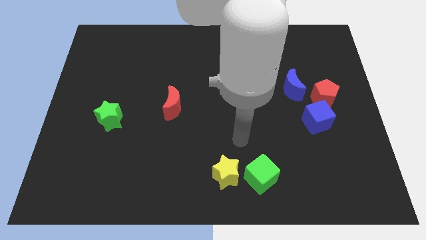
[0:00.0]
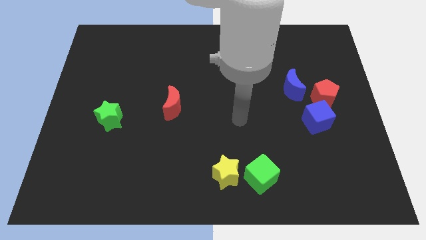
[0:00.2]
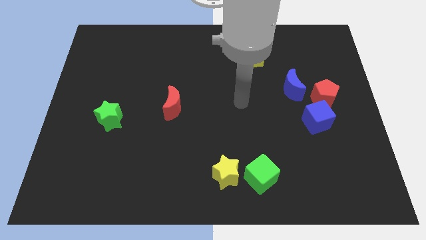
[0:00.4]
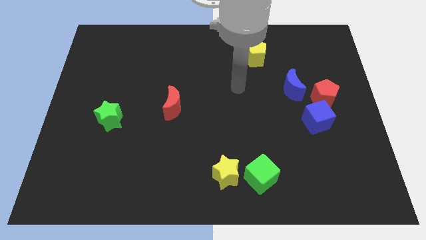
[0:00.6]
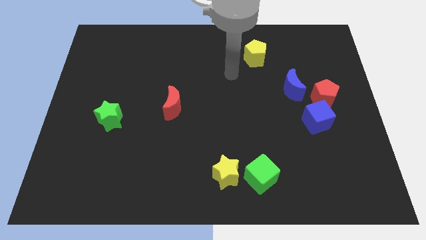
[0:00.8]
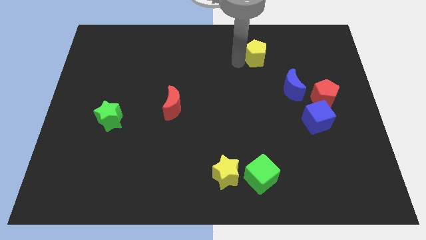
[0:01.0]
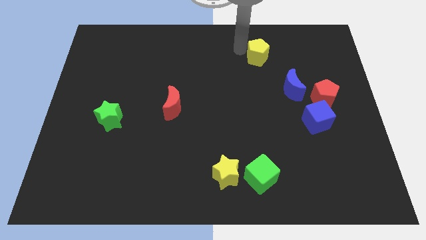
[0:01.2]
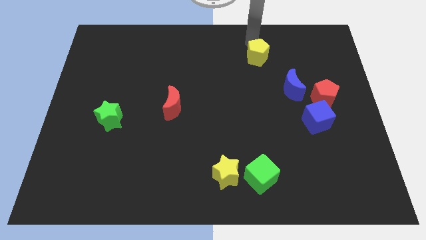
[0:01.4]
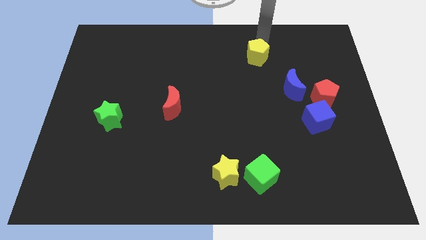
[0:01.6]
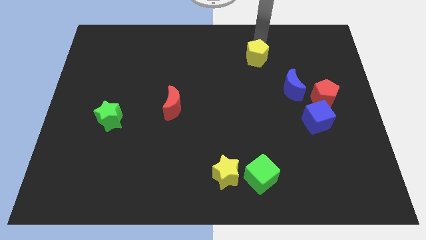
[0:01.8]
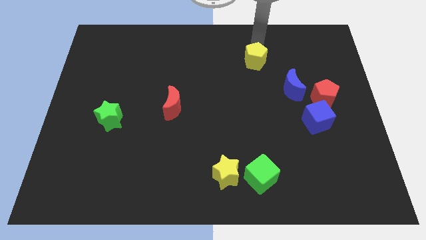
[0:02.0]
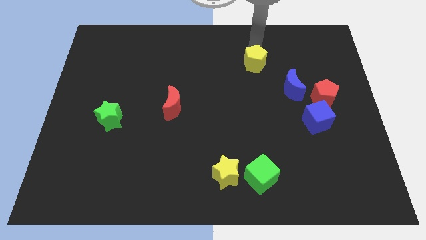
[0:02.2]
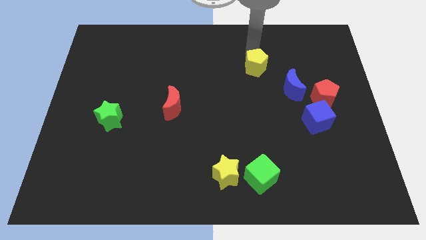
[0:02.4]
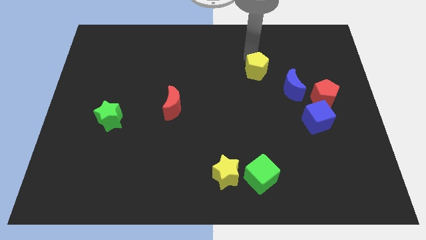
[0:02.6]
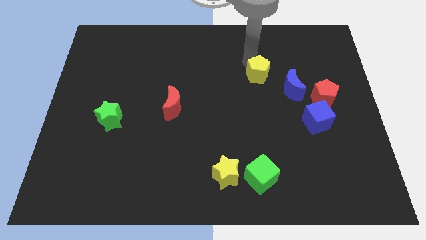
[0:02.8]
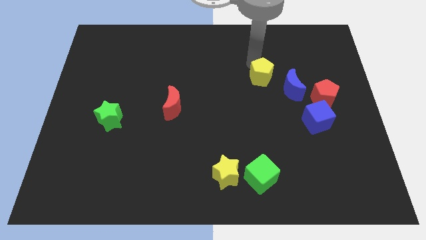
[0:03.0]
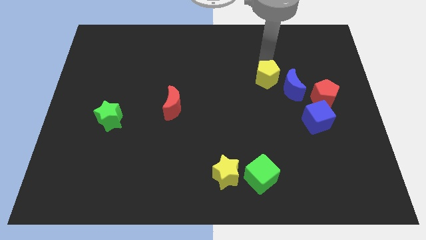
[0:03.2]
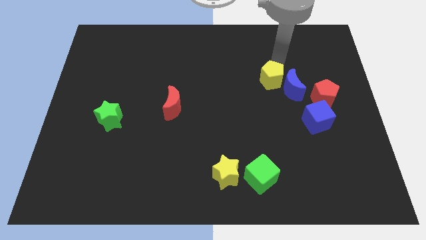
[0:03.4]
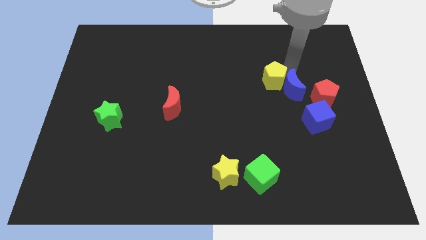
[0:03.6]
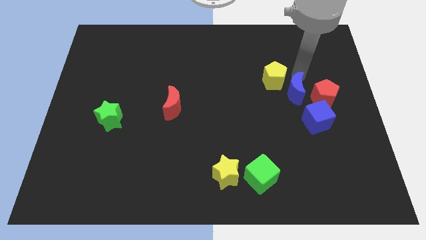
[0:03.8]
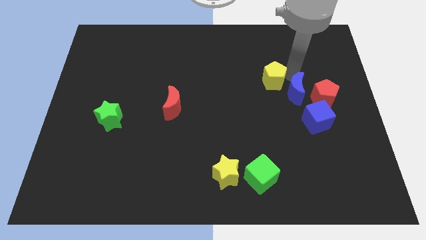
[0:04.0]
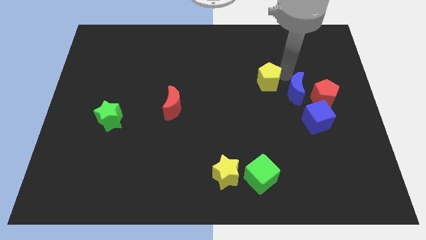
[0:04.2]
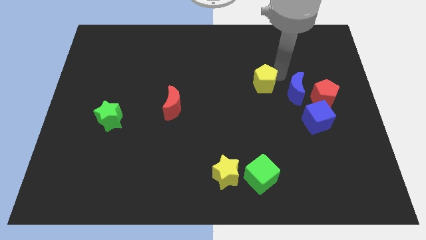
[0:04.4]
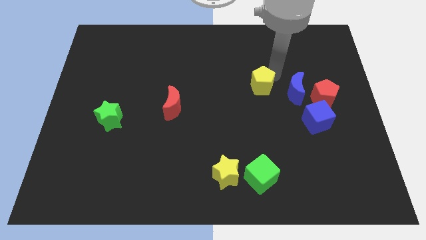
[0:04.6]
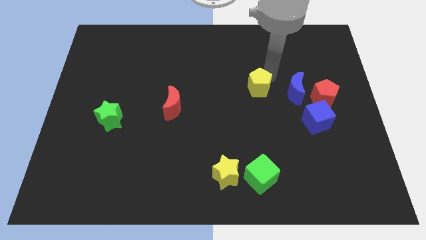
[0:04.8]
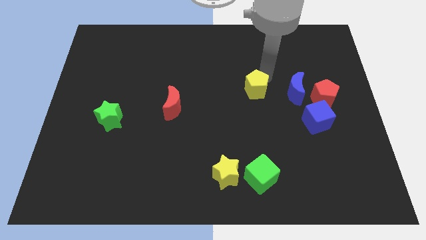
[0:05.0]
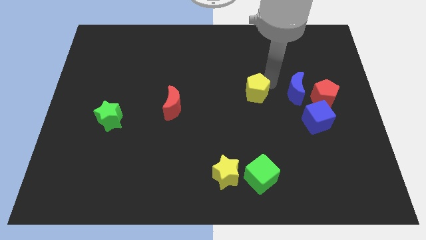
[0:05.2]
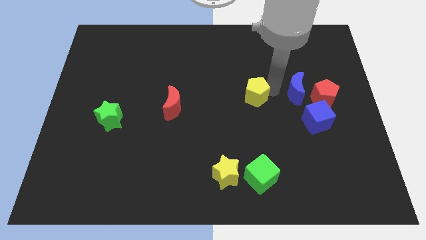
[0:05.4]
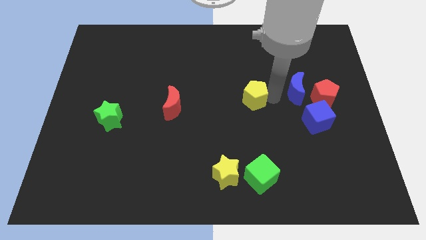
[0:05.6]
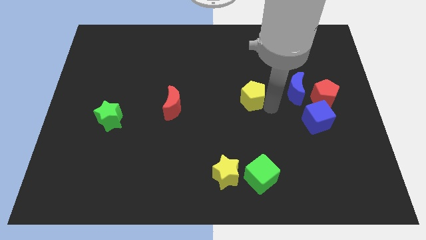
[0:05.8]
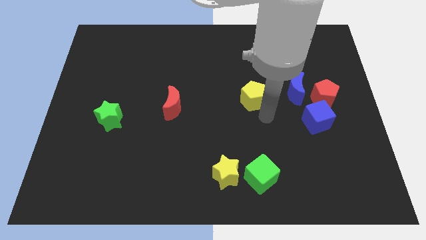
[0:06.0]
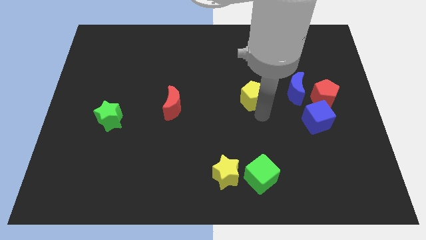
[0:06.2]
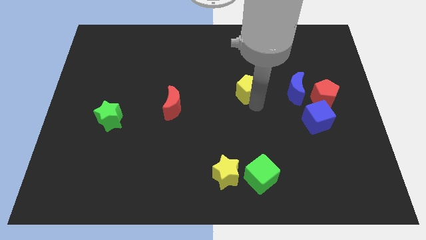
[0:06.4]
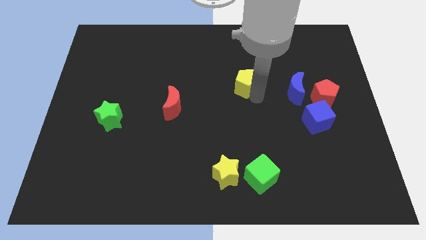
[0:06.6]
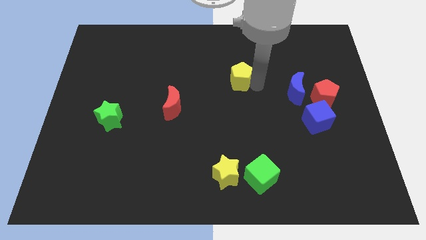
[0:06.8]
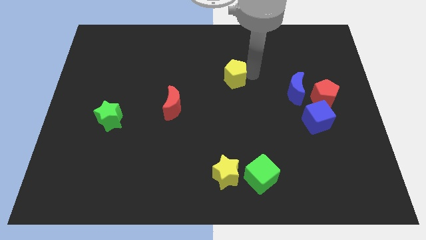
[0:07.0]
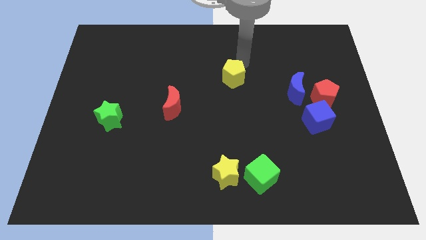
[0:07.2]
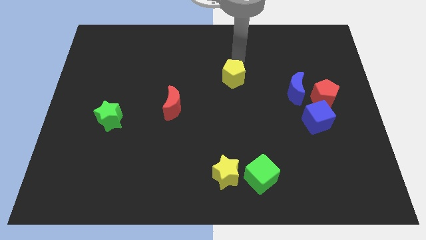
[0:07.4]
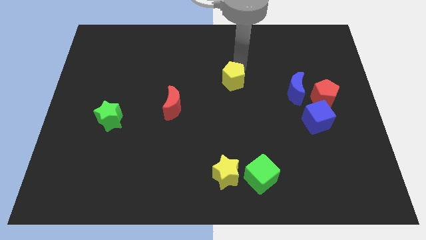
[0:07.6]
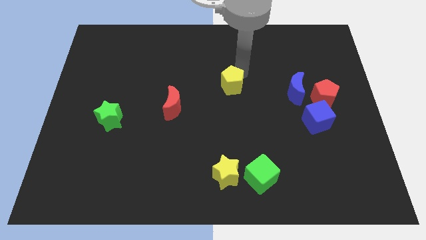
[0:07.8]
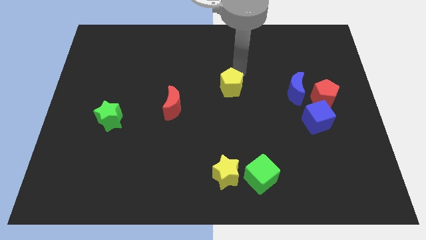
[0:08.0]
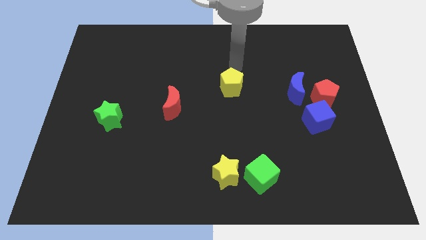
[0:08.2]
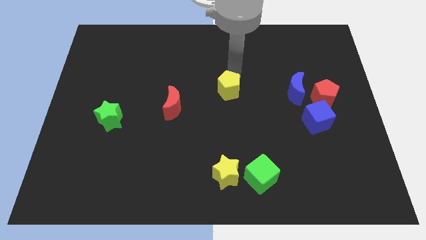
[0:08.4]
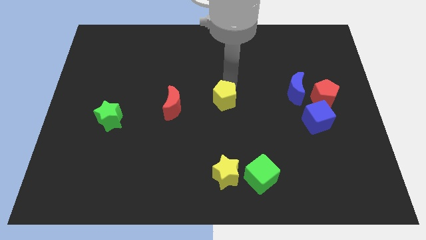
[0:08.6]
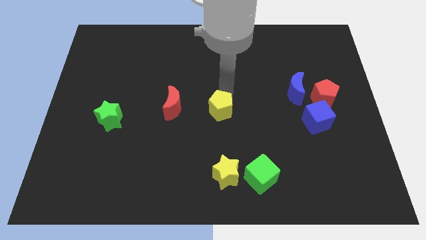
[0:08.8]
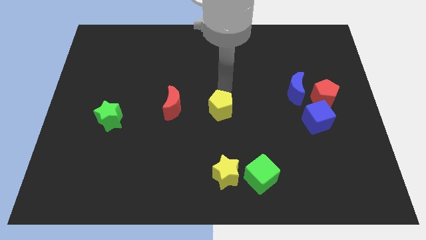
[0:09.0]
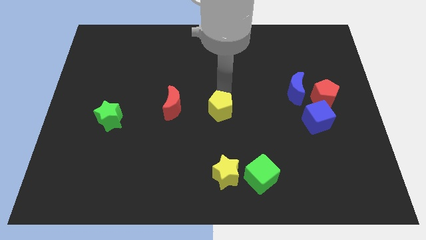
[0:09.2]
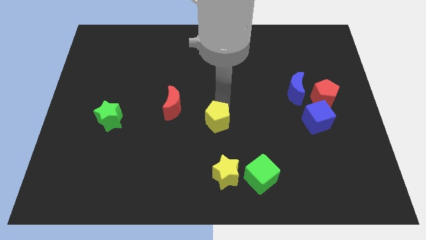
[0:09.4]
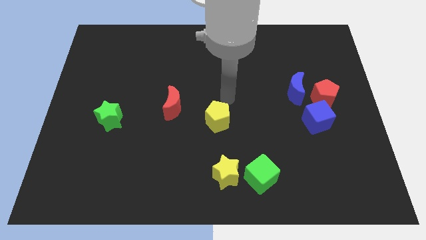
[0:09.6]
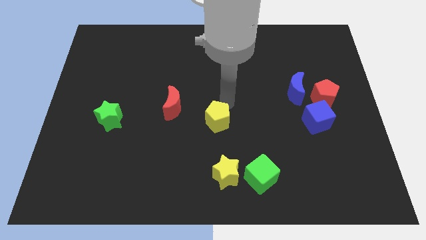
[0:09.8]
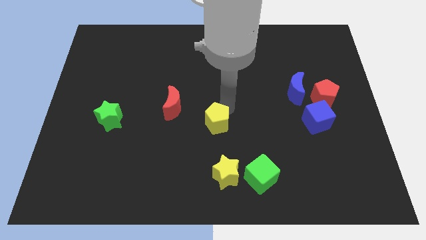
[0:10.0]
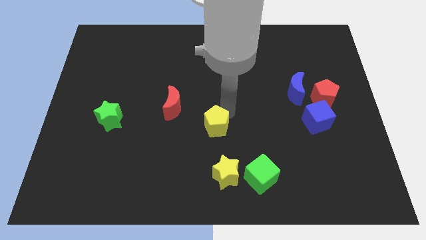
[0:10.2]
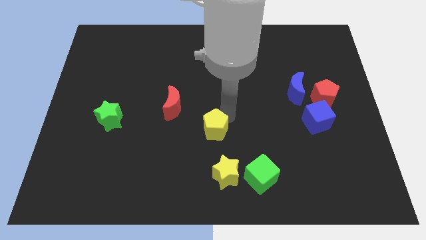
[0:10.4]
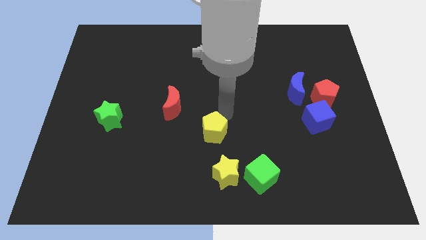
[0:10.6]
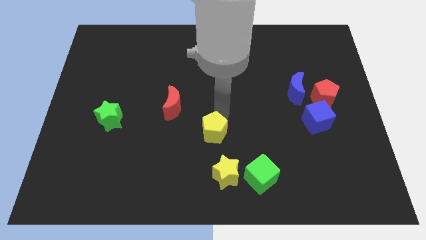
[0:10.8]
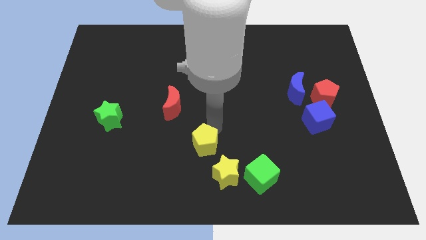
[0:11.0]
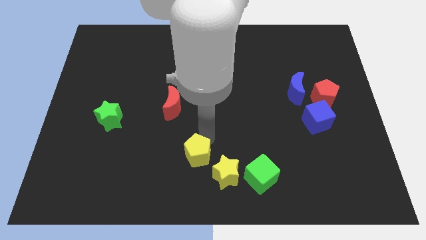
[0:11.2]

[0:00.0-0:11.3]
push the yellow pentagon to the bottom

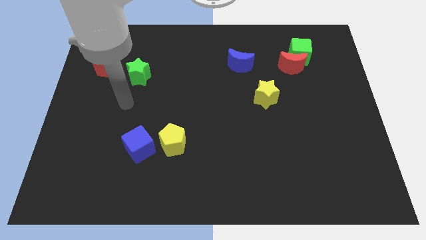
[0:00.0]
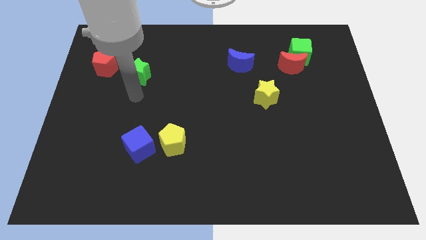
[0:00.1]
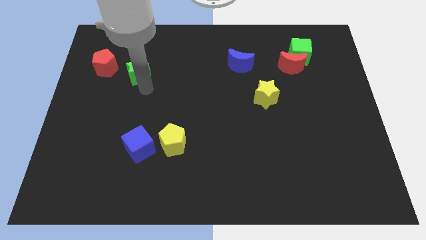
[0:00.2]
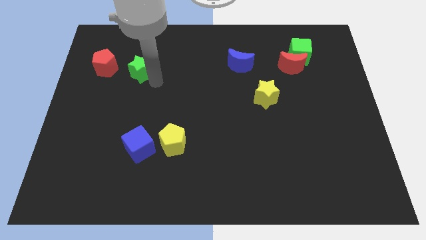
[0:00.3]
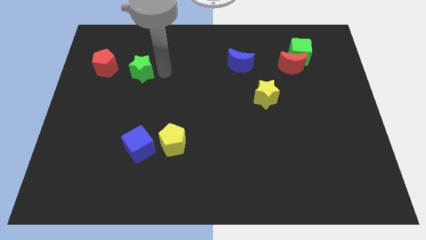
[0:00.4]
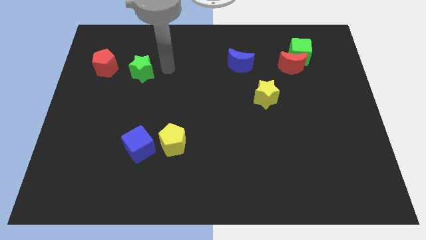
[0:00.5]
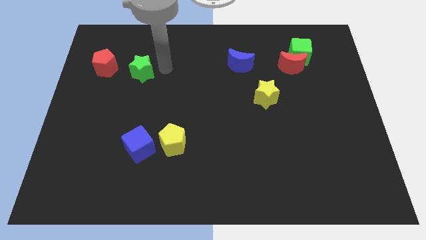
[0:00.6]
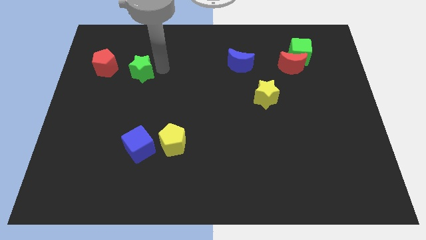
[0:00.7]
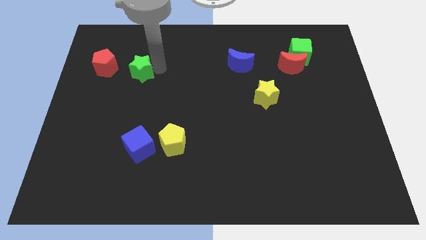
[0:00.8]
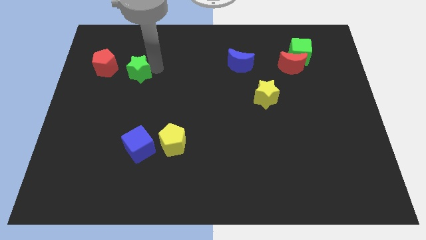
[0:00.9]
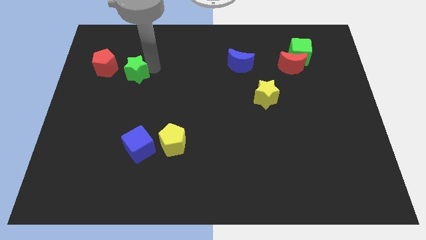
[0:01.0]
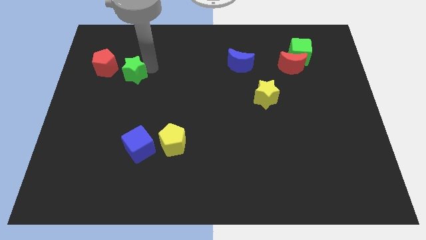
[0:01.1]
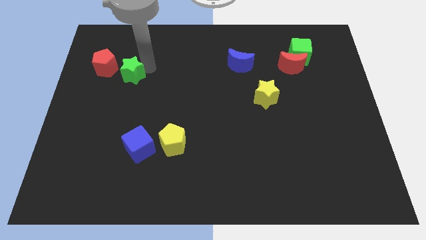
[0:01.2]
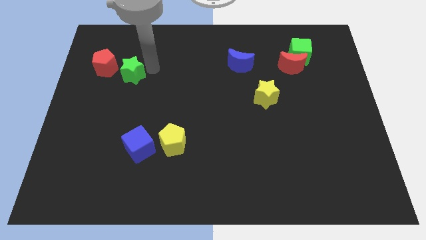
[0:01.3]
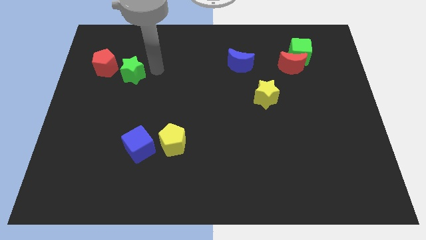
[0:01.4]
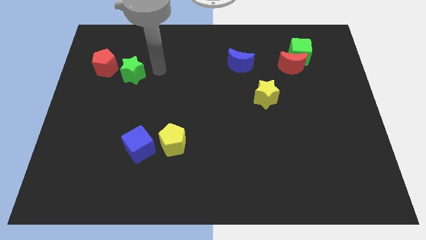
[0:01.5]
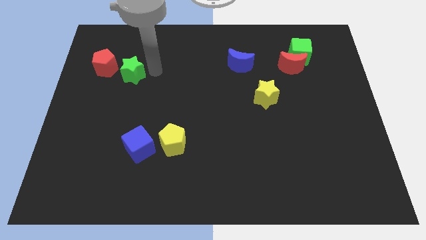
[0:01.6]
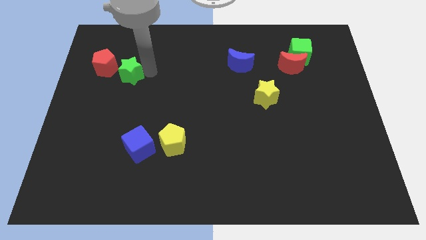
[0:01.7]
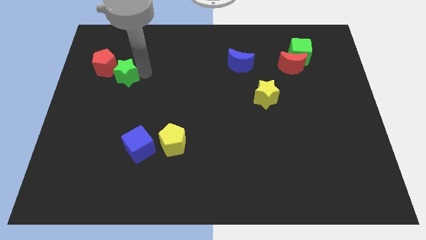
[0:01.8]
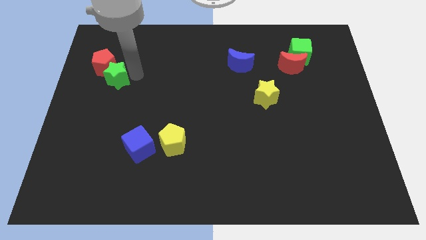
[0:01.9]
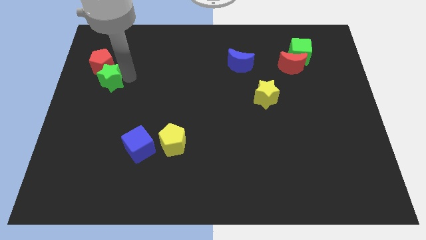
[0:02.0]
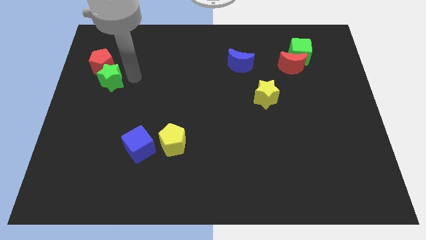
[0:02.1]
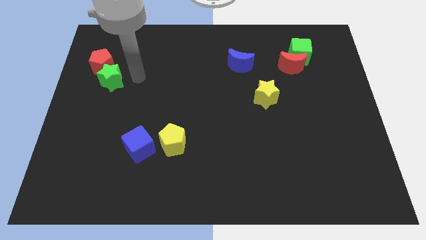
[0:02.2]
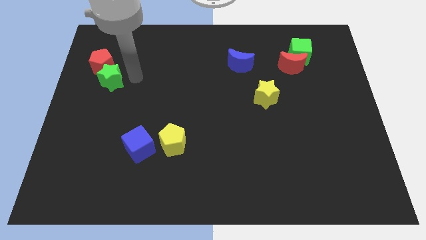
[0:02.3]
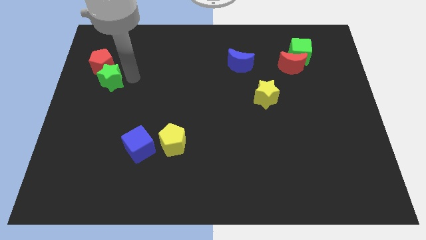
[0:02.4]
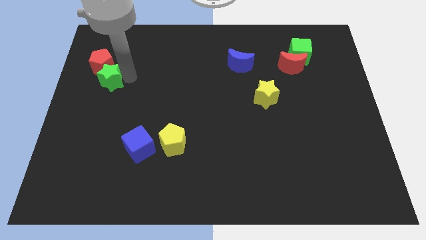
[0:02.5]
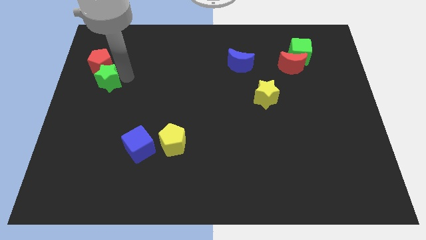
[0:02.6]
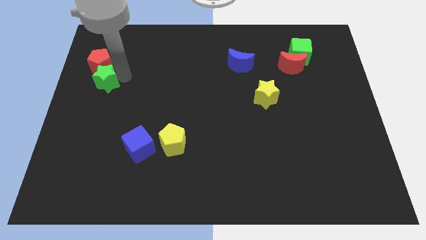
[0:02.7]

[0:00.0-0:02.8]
put the green star to the center left
